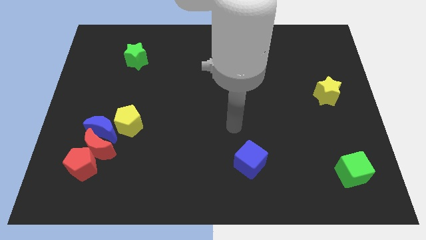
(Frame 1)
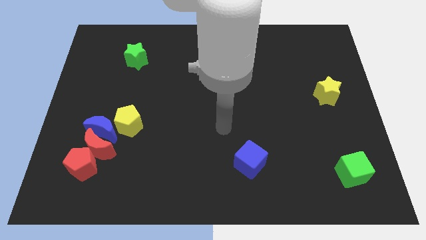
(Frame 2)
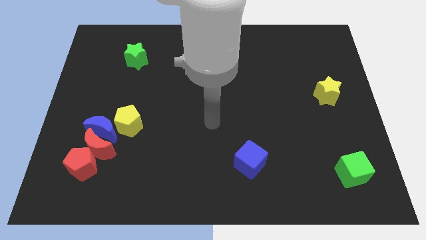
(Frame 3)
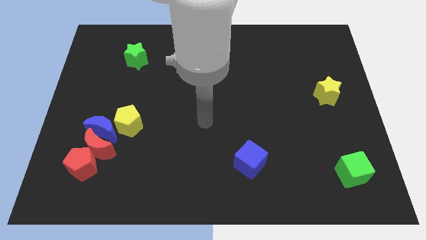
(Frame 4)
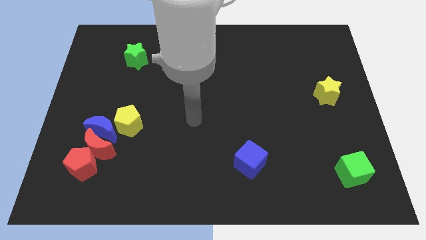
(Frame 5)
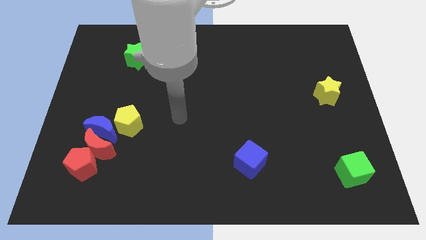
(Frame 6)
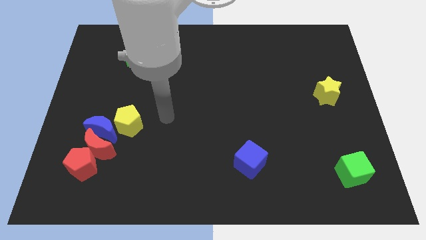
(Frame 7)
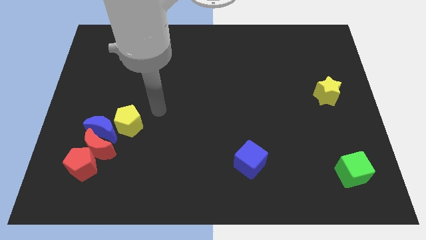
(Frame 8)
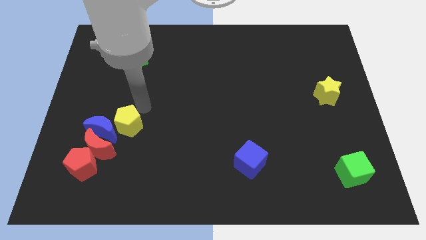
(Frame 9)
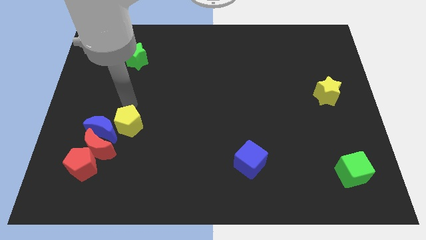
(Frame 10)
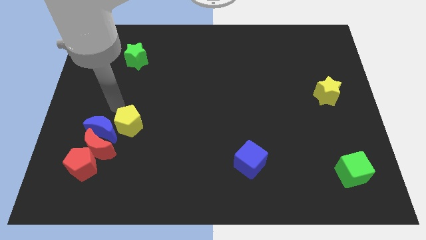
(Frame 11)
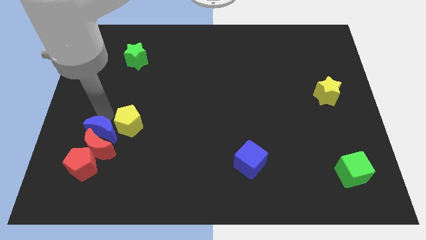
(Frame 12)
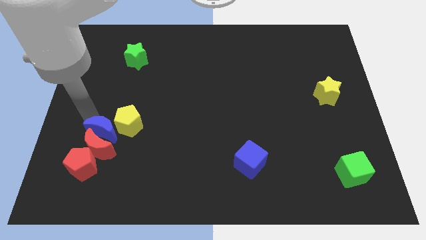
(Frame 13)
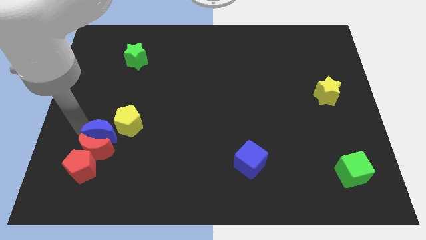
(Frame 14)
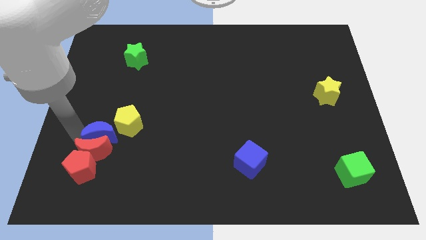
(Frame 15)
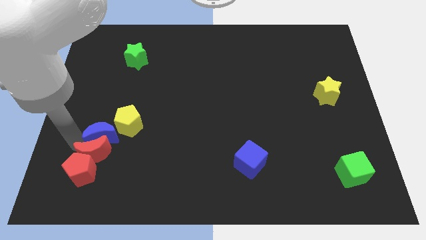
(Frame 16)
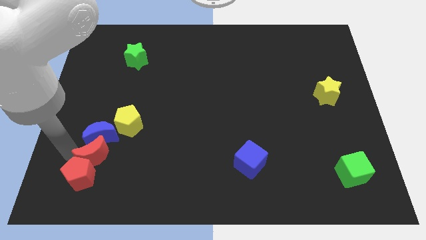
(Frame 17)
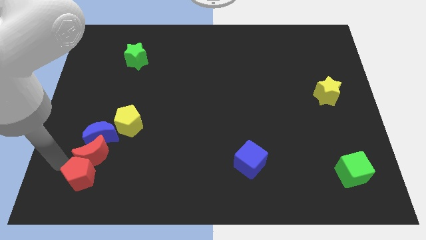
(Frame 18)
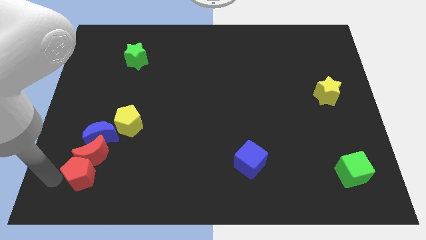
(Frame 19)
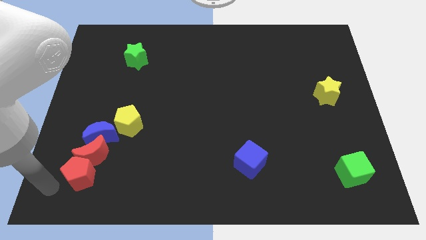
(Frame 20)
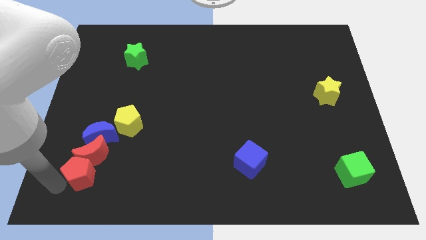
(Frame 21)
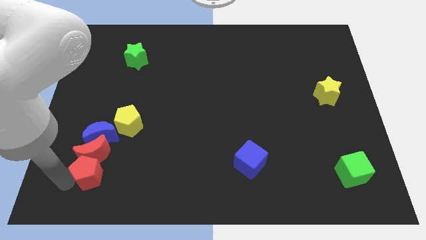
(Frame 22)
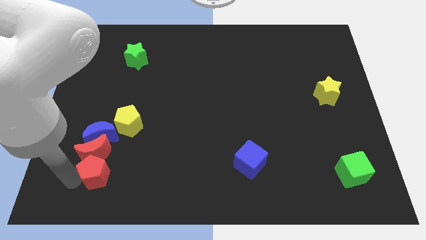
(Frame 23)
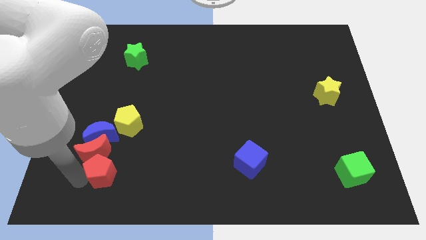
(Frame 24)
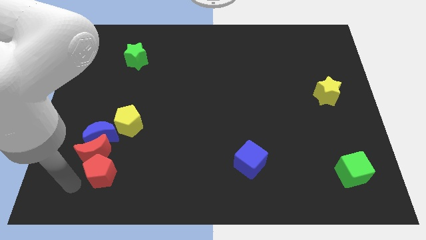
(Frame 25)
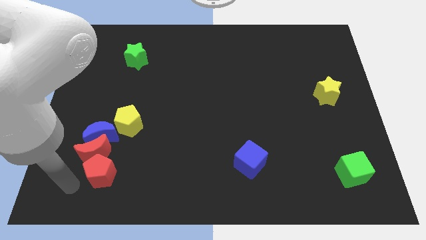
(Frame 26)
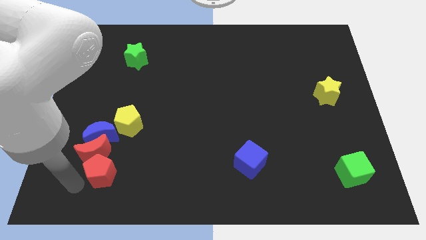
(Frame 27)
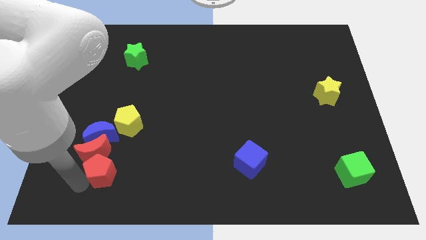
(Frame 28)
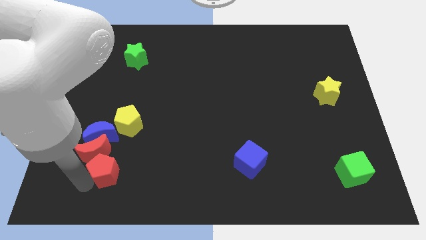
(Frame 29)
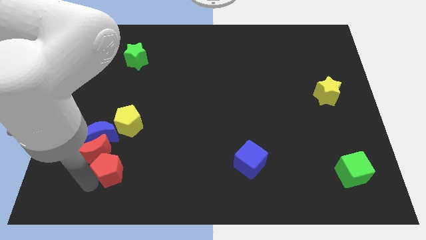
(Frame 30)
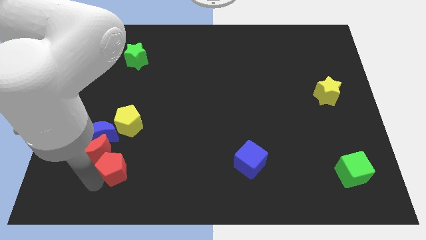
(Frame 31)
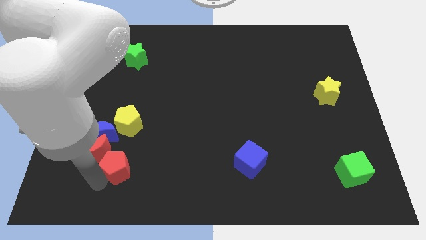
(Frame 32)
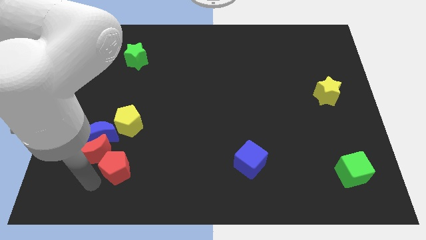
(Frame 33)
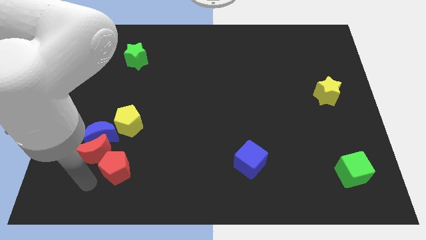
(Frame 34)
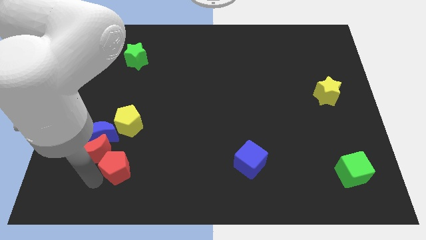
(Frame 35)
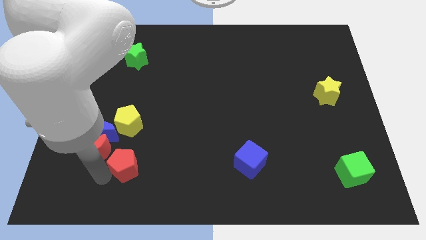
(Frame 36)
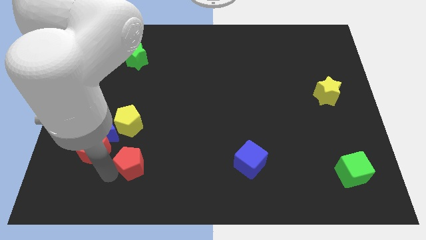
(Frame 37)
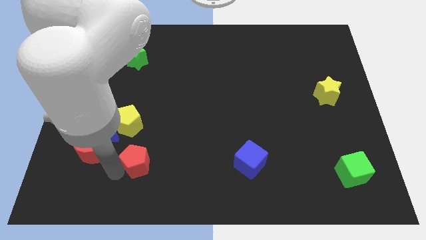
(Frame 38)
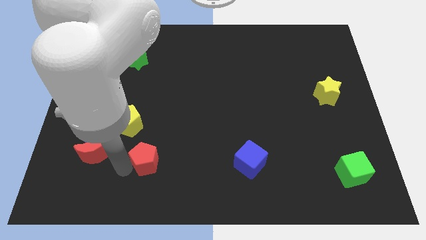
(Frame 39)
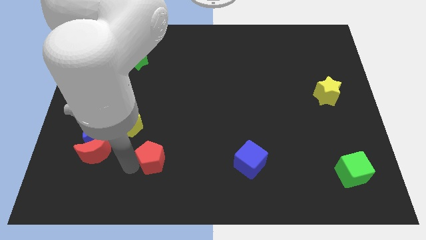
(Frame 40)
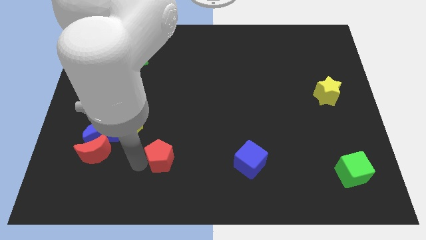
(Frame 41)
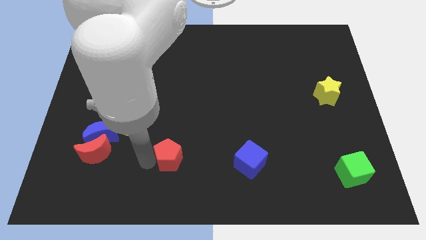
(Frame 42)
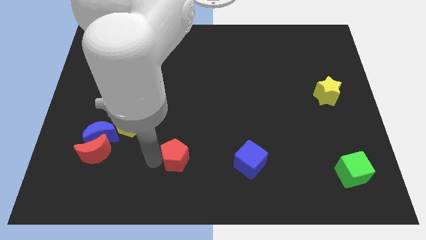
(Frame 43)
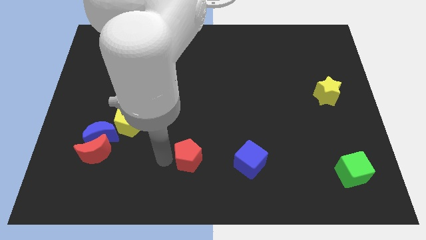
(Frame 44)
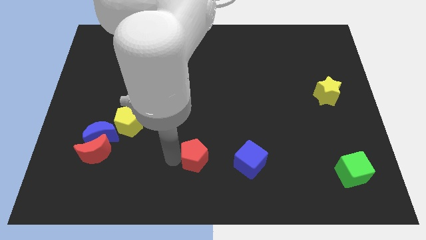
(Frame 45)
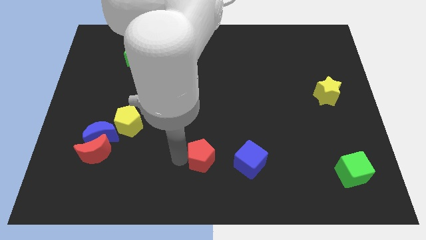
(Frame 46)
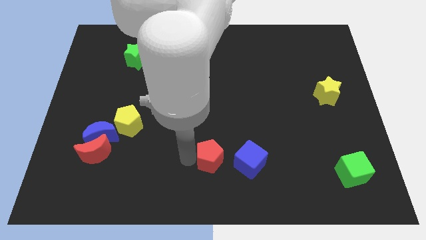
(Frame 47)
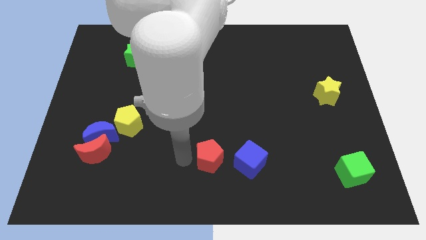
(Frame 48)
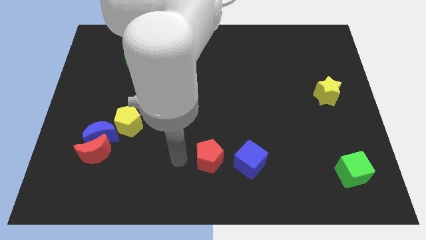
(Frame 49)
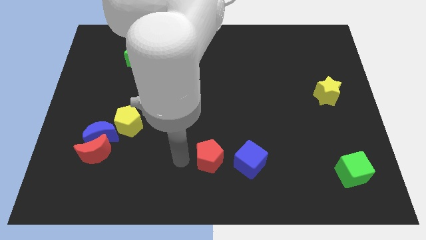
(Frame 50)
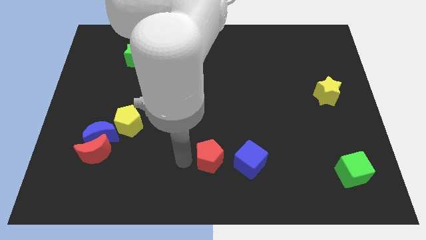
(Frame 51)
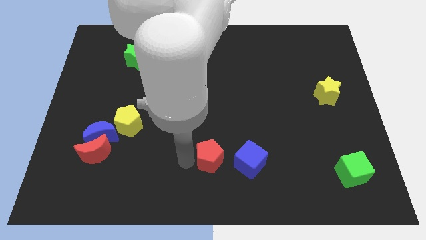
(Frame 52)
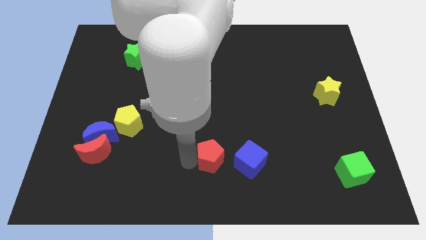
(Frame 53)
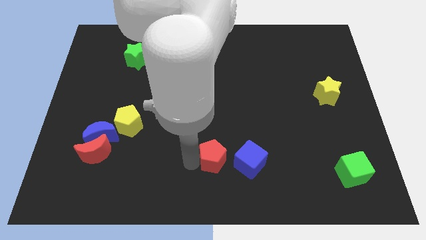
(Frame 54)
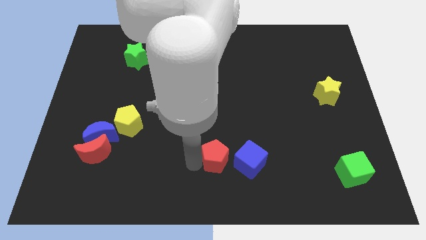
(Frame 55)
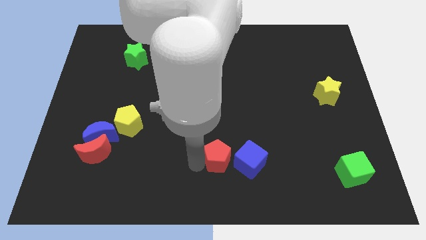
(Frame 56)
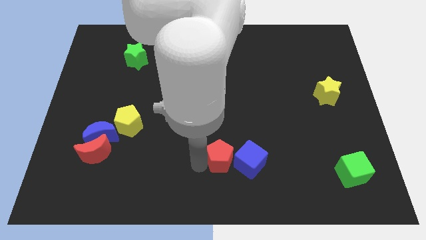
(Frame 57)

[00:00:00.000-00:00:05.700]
move the red pentagon next to the blue cube
